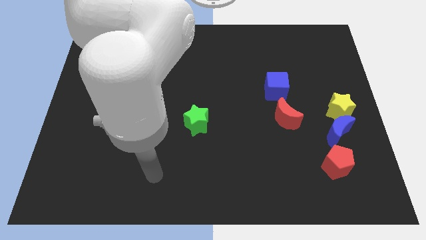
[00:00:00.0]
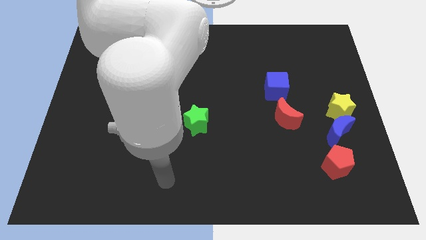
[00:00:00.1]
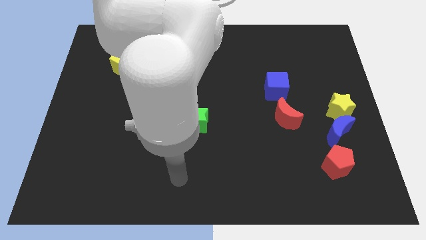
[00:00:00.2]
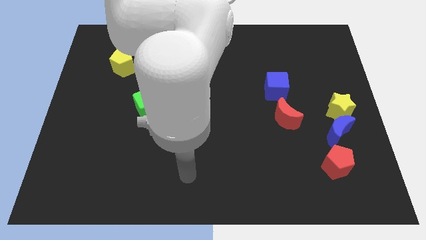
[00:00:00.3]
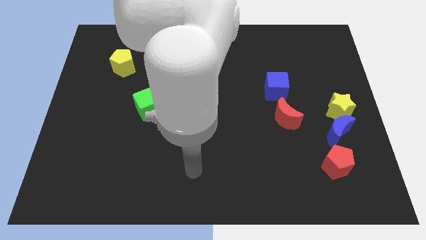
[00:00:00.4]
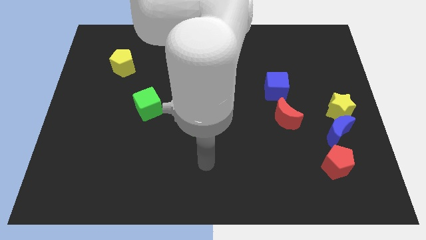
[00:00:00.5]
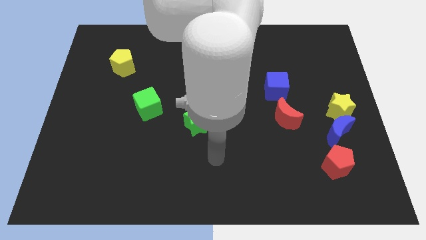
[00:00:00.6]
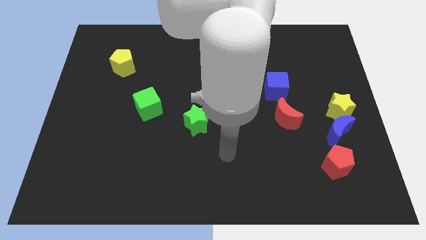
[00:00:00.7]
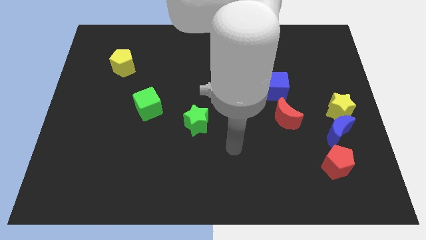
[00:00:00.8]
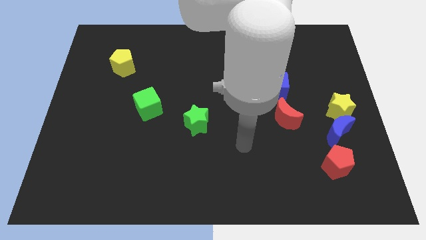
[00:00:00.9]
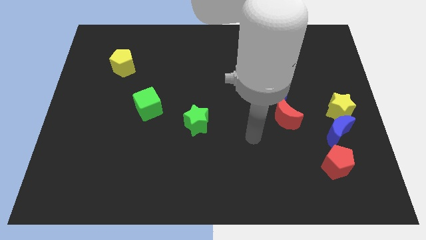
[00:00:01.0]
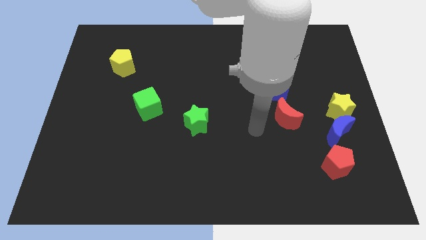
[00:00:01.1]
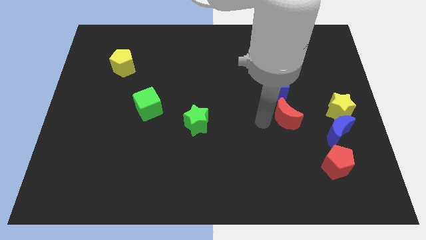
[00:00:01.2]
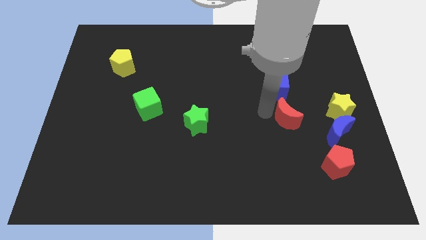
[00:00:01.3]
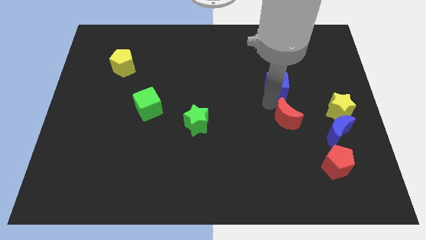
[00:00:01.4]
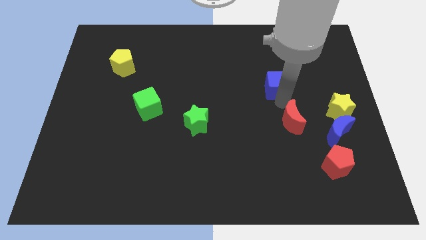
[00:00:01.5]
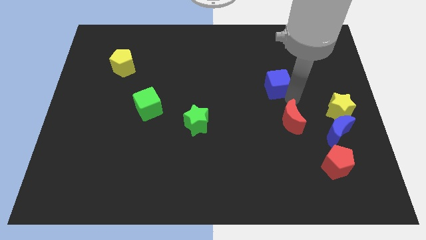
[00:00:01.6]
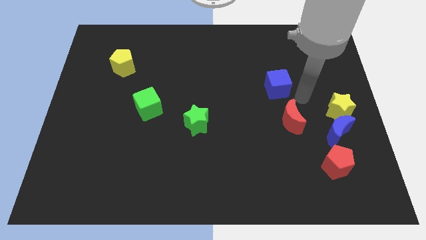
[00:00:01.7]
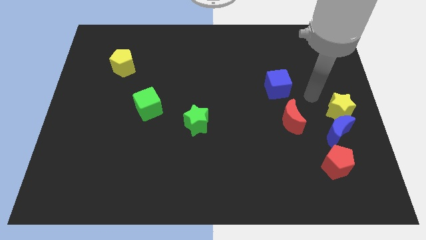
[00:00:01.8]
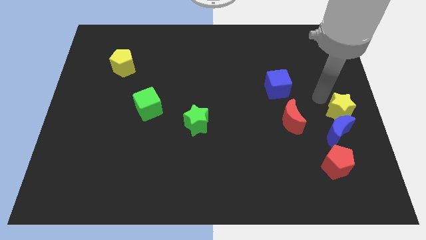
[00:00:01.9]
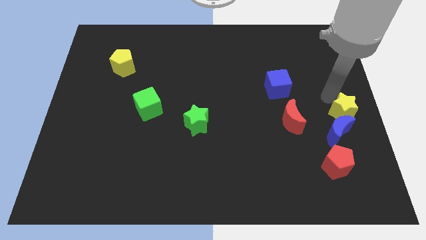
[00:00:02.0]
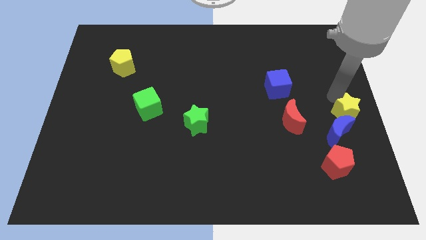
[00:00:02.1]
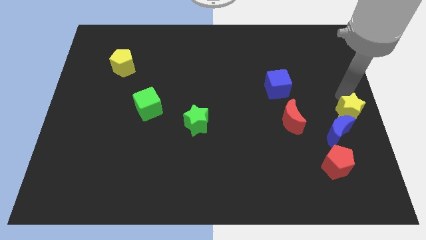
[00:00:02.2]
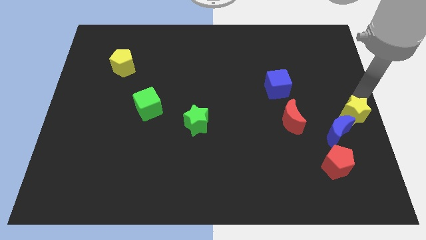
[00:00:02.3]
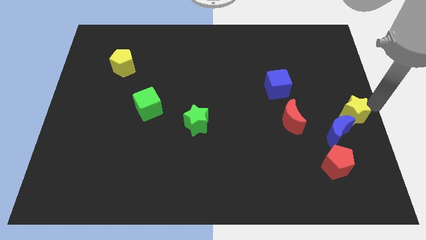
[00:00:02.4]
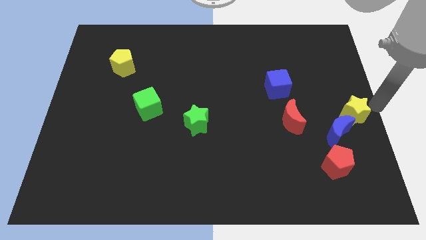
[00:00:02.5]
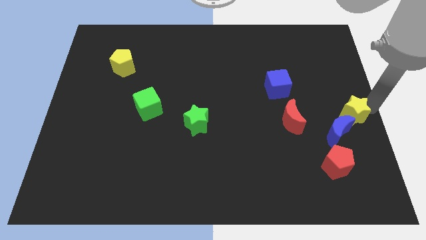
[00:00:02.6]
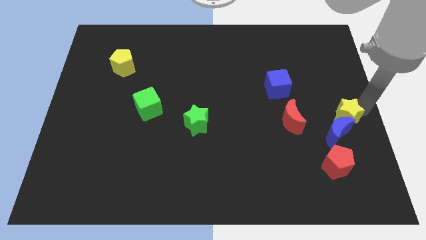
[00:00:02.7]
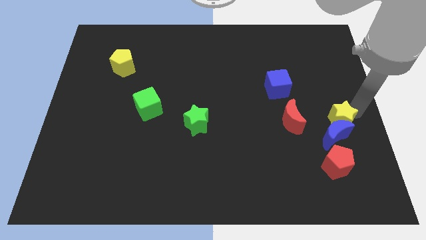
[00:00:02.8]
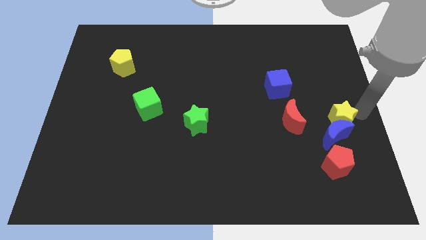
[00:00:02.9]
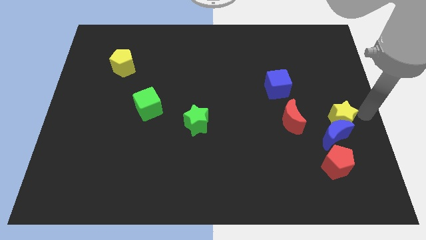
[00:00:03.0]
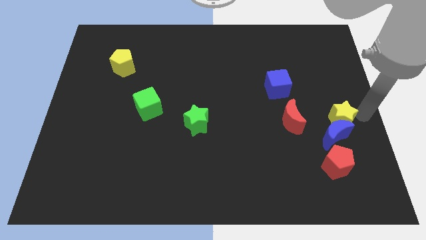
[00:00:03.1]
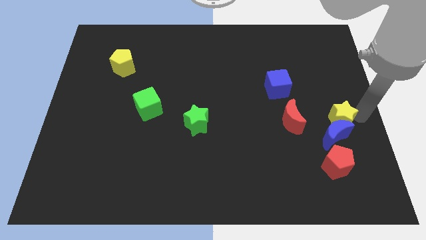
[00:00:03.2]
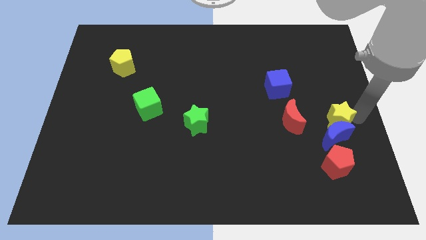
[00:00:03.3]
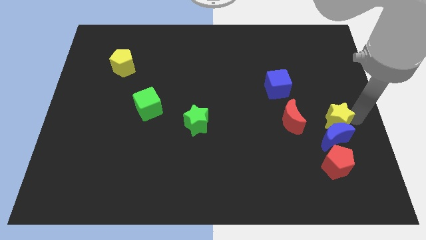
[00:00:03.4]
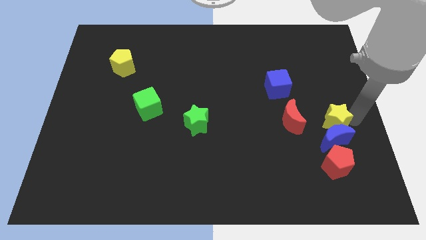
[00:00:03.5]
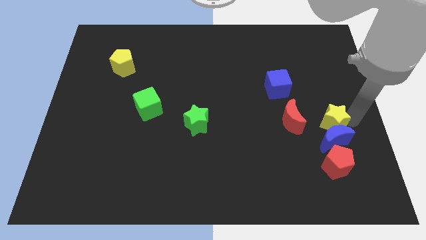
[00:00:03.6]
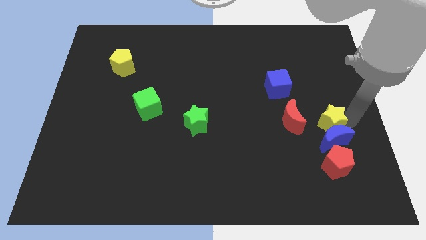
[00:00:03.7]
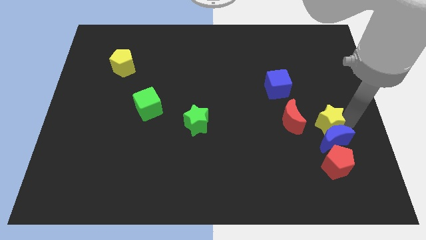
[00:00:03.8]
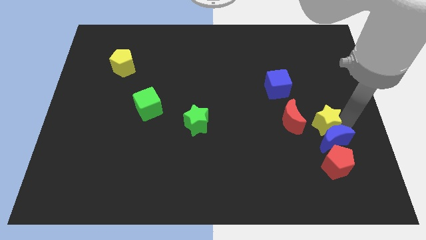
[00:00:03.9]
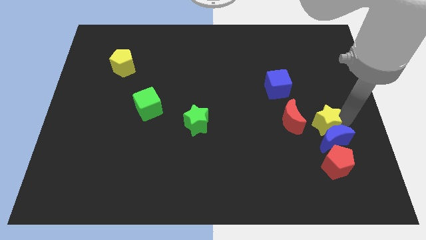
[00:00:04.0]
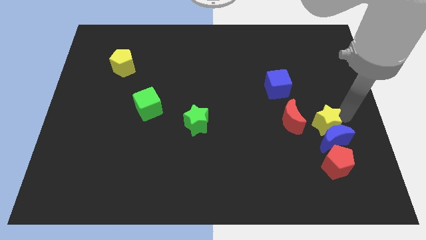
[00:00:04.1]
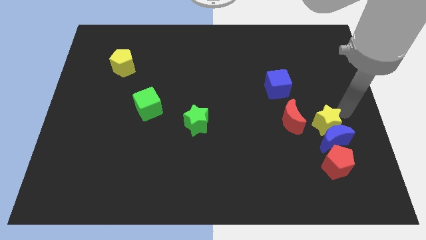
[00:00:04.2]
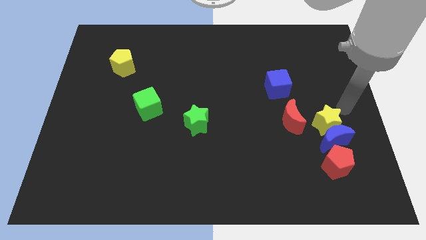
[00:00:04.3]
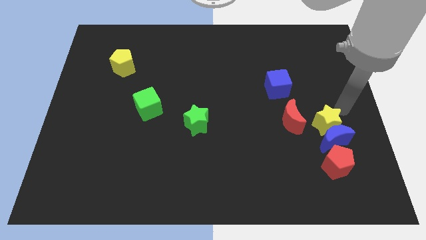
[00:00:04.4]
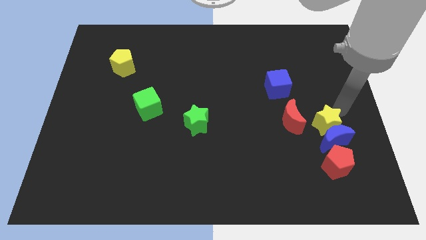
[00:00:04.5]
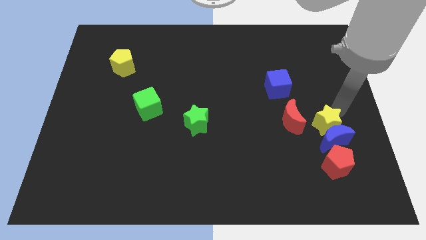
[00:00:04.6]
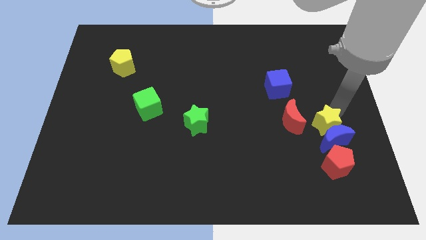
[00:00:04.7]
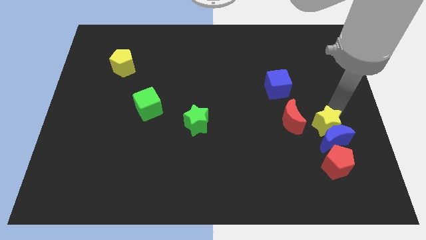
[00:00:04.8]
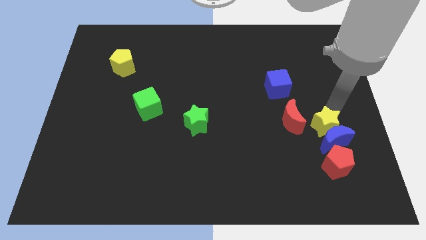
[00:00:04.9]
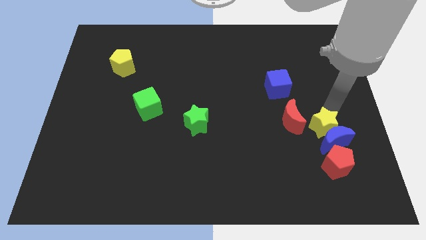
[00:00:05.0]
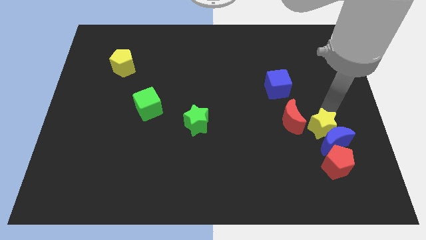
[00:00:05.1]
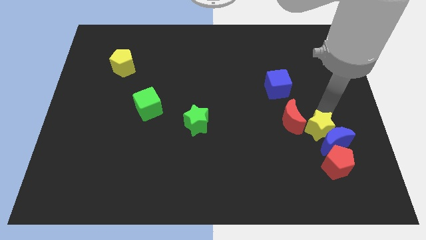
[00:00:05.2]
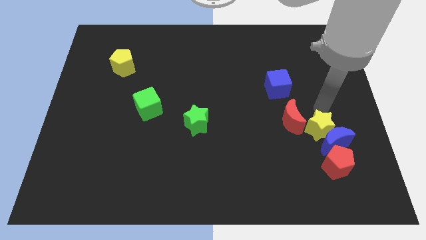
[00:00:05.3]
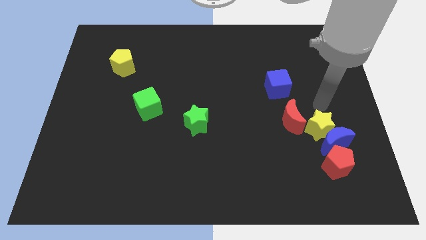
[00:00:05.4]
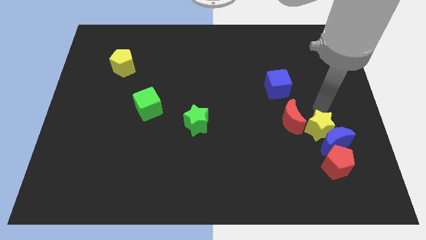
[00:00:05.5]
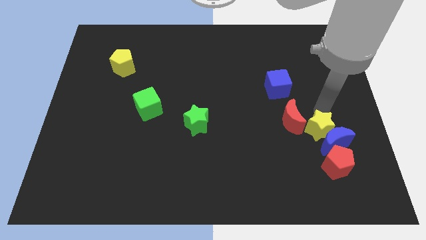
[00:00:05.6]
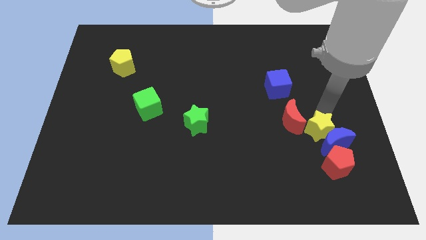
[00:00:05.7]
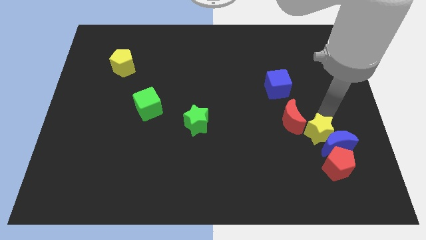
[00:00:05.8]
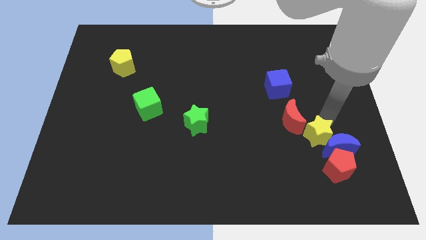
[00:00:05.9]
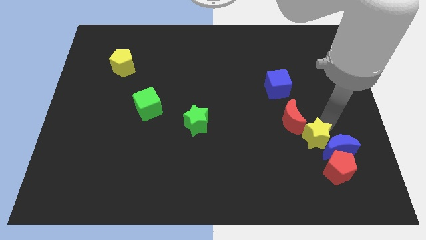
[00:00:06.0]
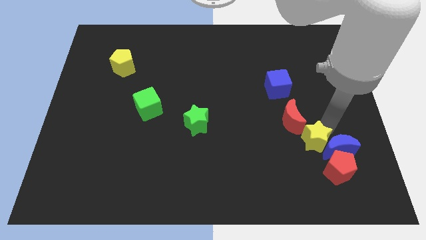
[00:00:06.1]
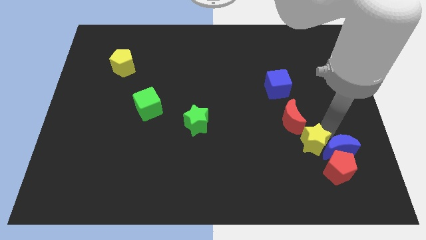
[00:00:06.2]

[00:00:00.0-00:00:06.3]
slide the yellow star to the bottom left of the blue moon
